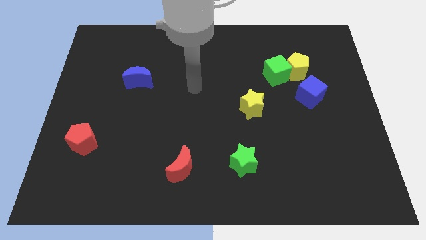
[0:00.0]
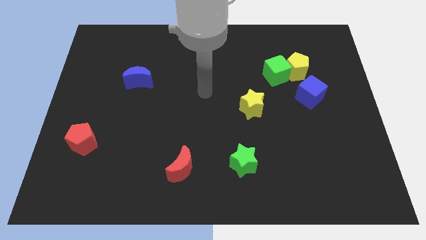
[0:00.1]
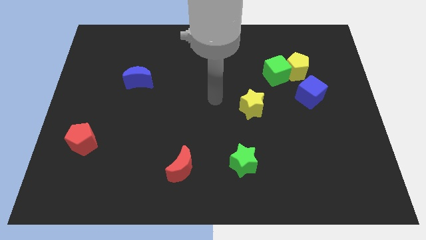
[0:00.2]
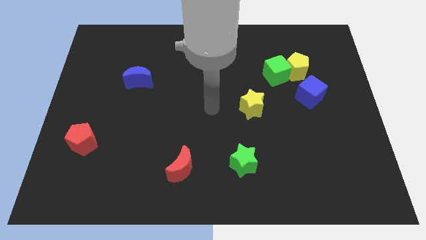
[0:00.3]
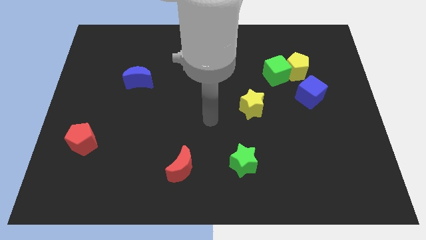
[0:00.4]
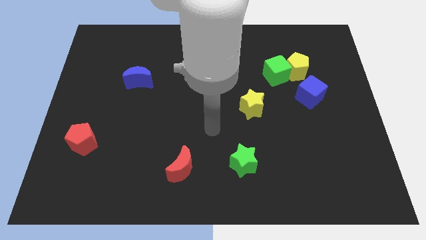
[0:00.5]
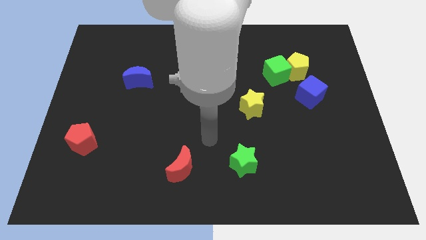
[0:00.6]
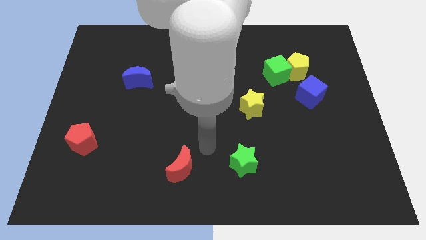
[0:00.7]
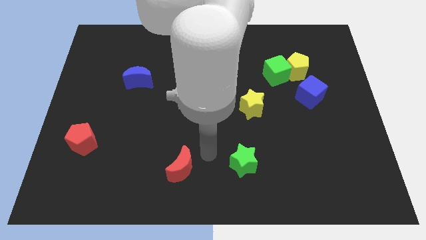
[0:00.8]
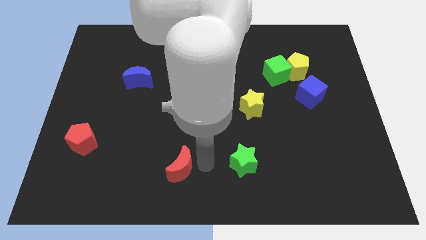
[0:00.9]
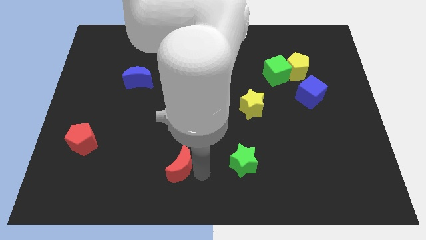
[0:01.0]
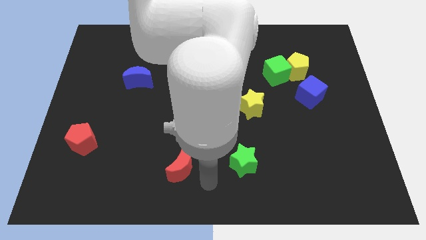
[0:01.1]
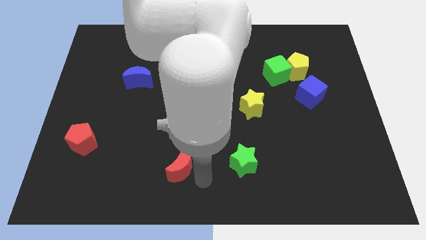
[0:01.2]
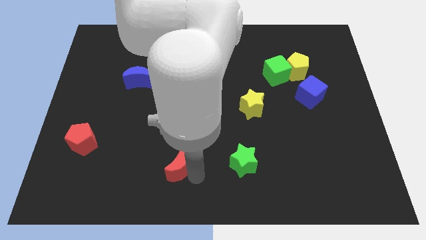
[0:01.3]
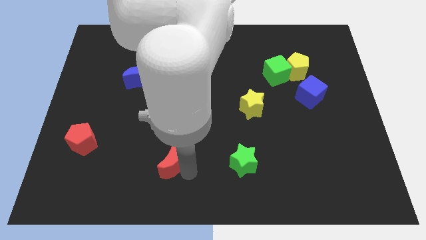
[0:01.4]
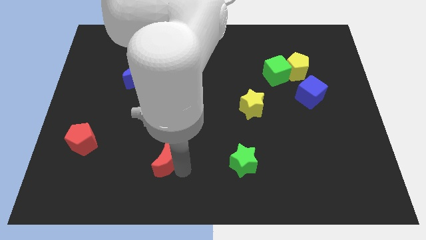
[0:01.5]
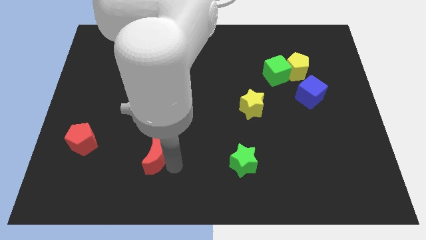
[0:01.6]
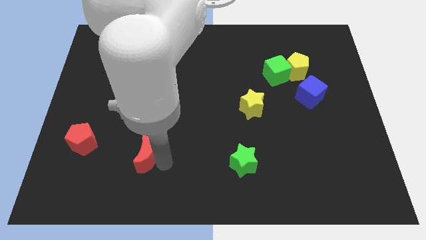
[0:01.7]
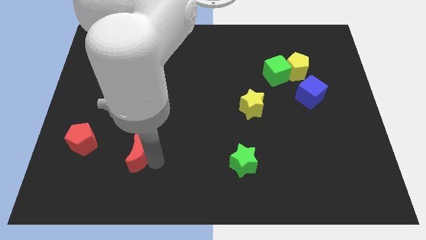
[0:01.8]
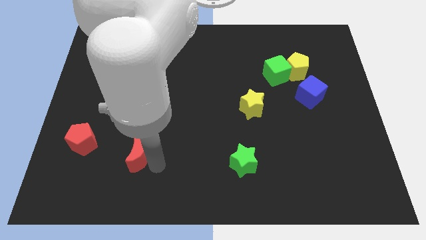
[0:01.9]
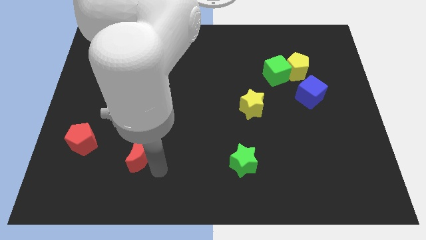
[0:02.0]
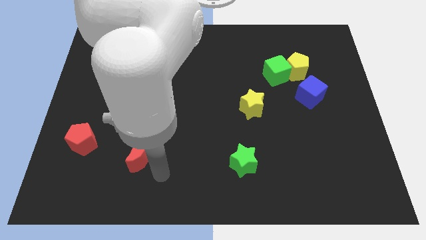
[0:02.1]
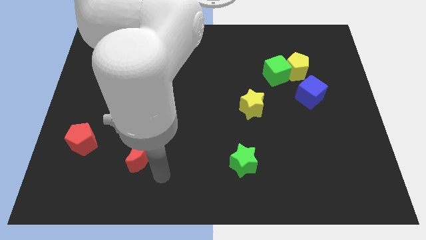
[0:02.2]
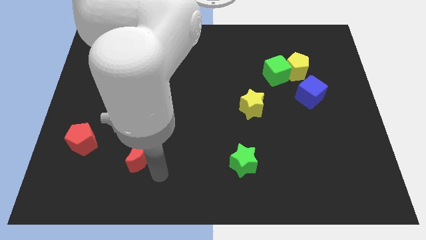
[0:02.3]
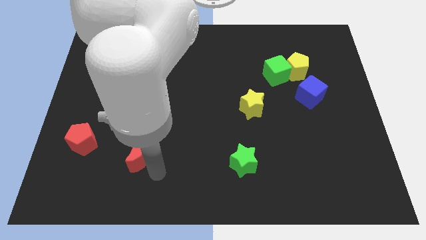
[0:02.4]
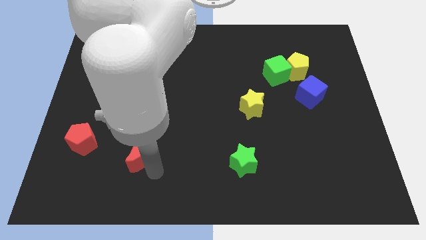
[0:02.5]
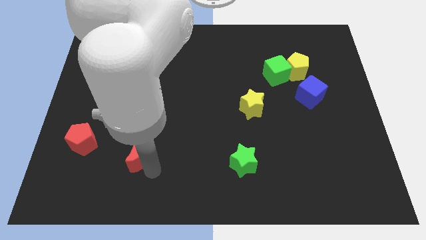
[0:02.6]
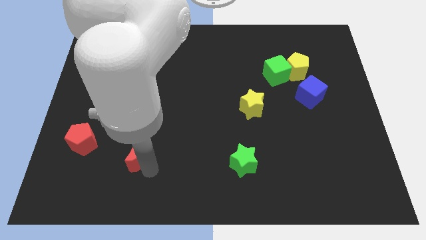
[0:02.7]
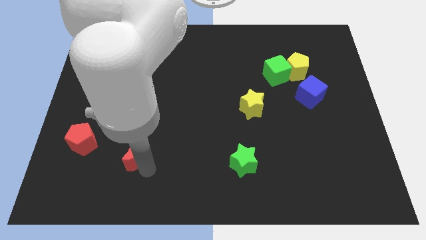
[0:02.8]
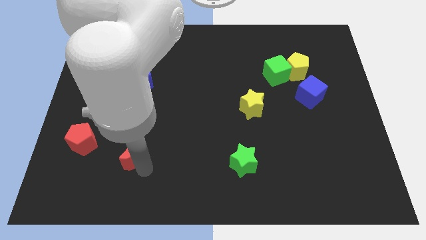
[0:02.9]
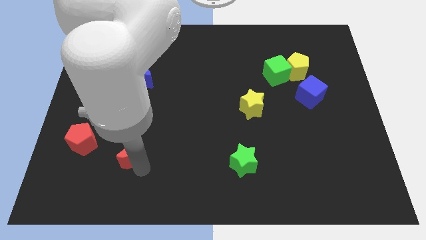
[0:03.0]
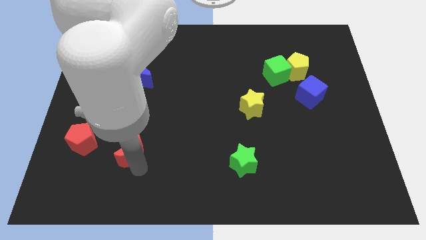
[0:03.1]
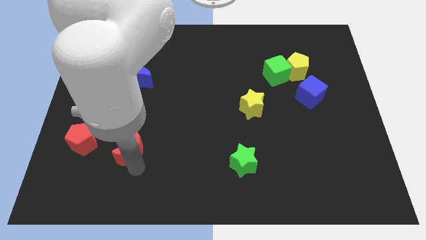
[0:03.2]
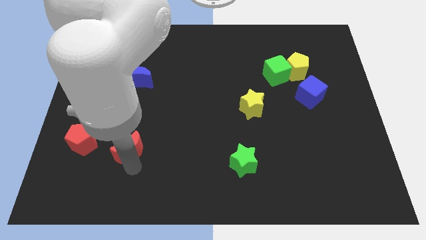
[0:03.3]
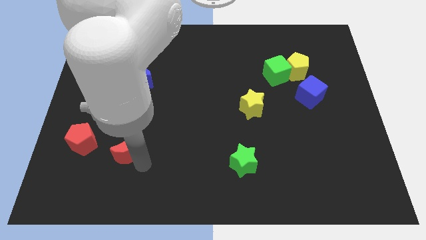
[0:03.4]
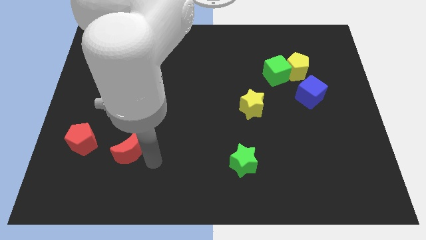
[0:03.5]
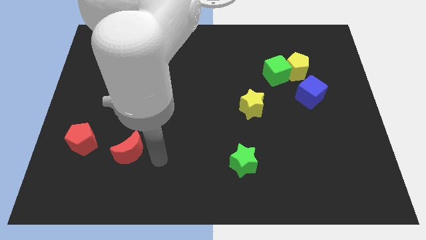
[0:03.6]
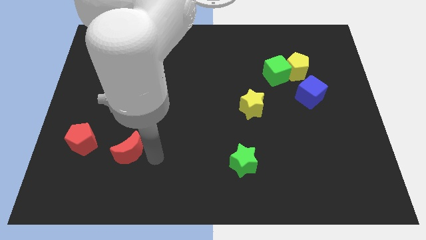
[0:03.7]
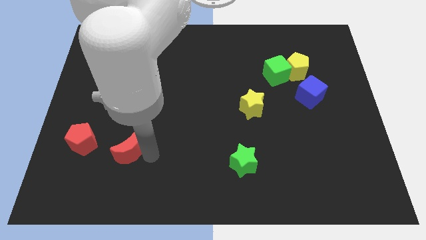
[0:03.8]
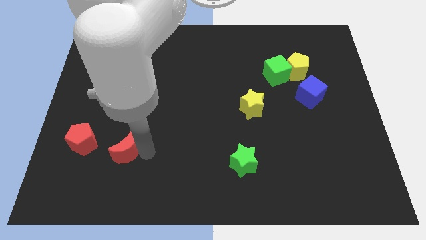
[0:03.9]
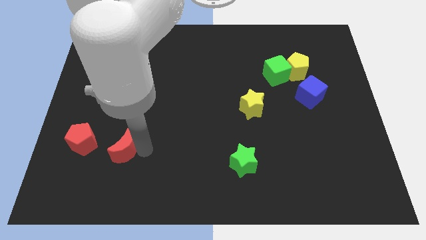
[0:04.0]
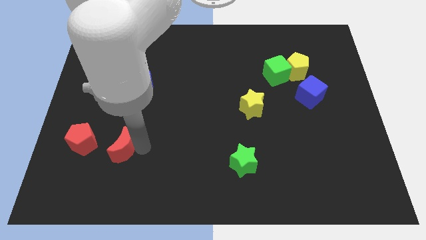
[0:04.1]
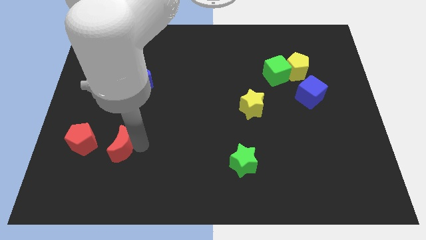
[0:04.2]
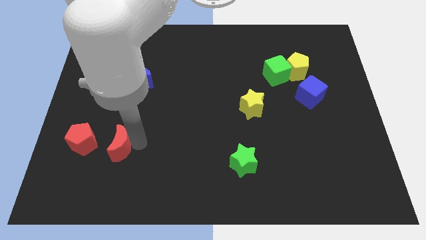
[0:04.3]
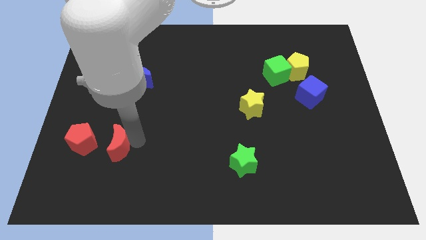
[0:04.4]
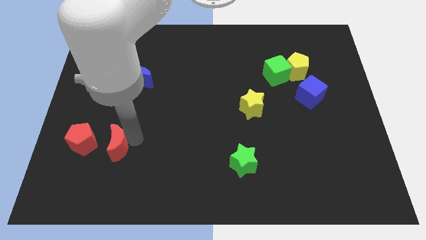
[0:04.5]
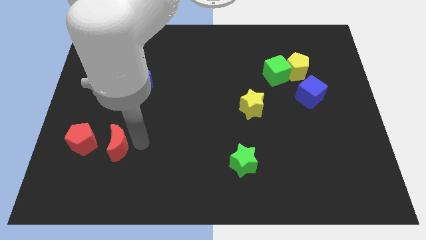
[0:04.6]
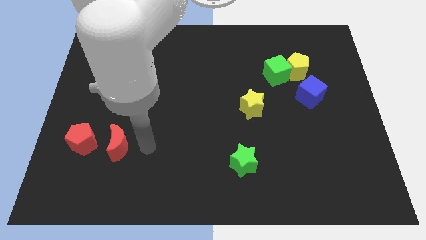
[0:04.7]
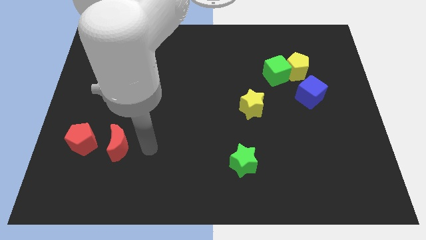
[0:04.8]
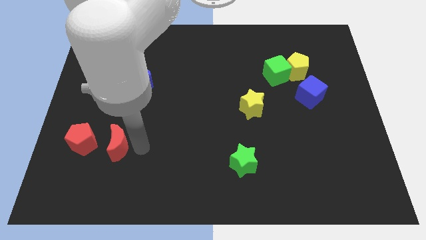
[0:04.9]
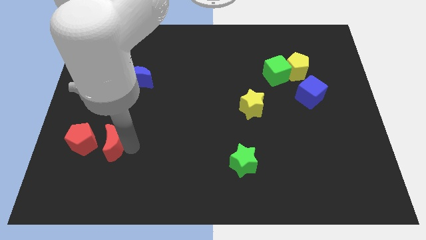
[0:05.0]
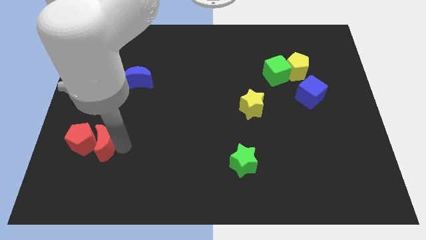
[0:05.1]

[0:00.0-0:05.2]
push the red moon next to the red pentagon

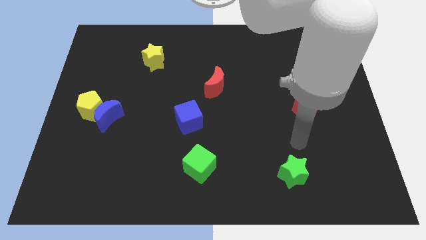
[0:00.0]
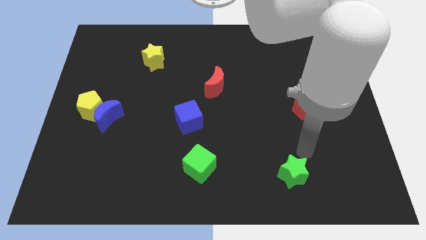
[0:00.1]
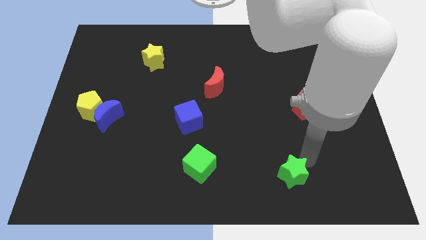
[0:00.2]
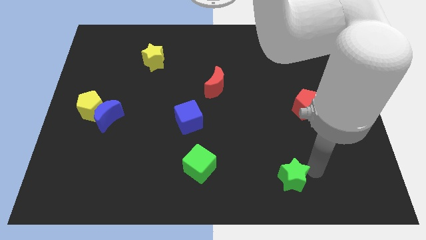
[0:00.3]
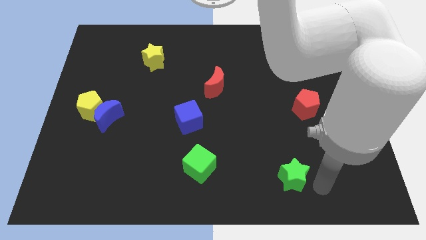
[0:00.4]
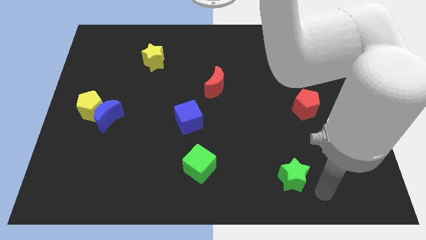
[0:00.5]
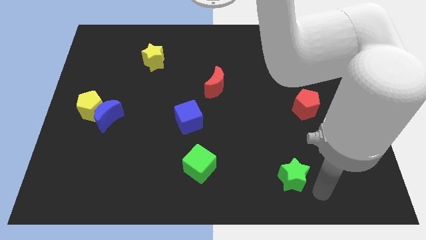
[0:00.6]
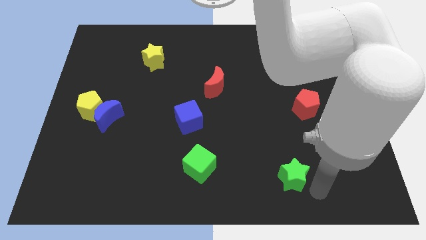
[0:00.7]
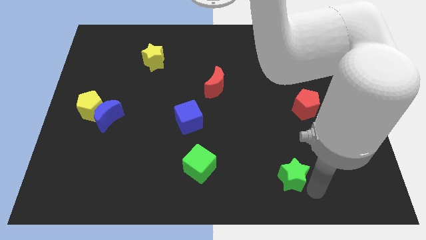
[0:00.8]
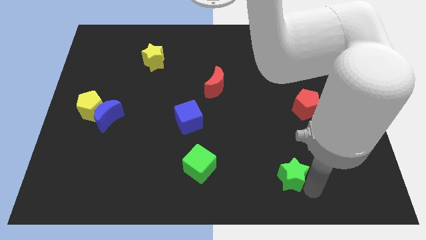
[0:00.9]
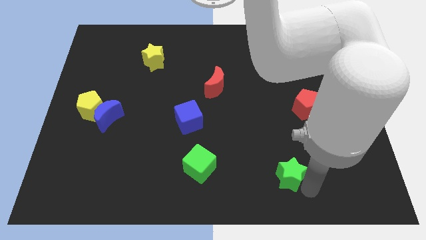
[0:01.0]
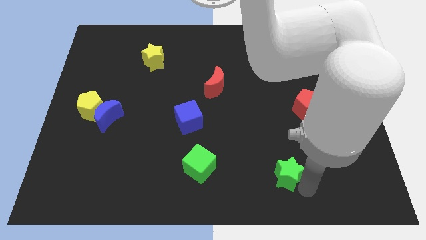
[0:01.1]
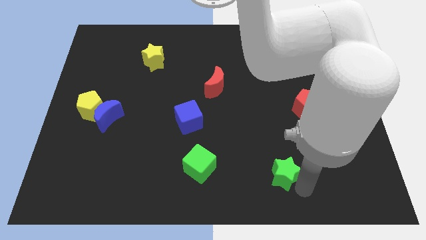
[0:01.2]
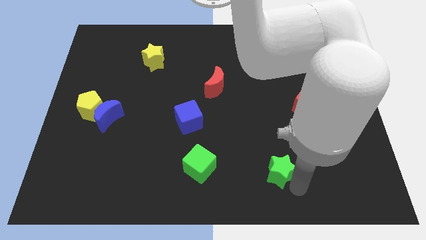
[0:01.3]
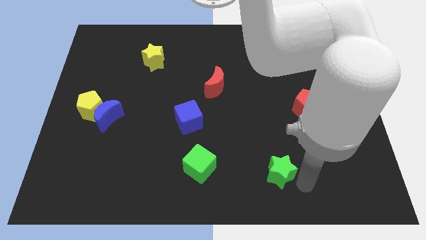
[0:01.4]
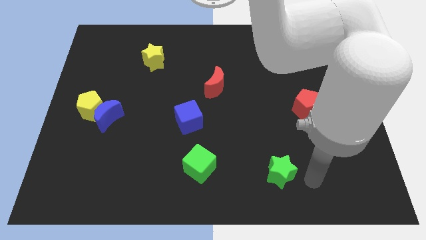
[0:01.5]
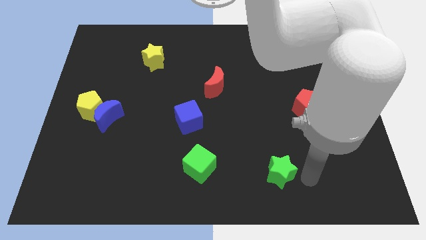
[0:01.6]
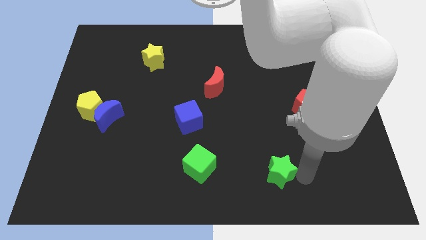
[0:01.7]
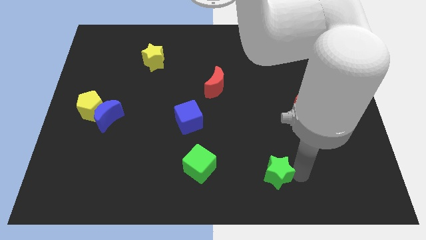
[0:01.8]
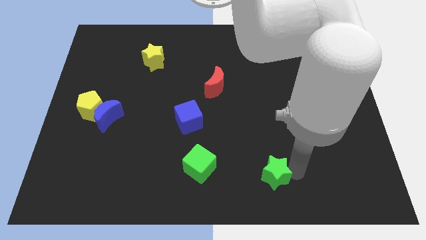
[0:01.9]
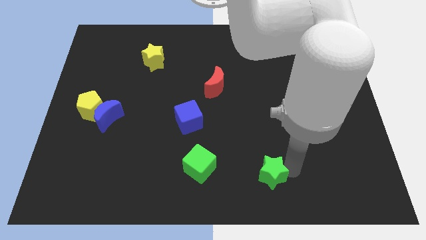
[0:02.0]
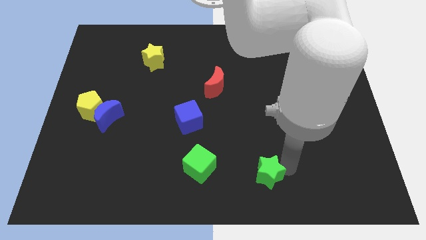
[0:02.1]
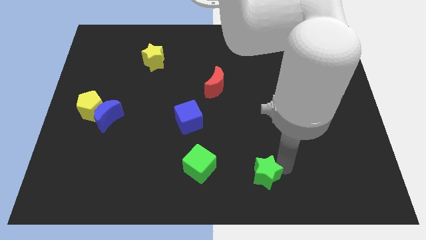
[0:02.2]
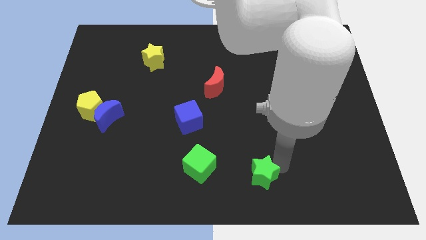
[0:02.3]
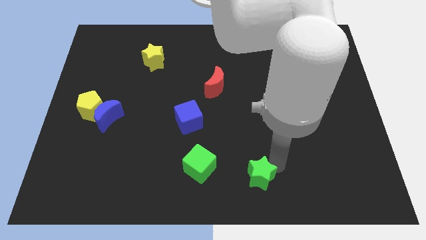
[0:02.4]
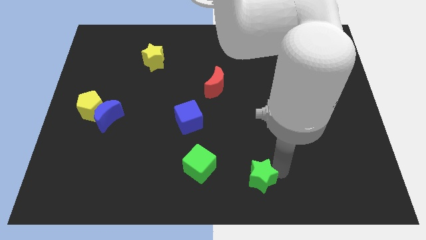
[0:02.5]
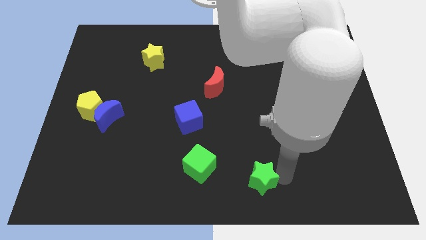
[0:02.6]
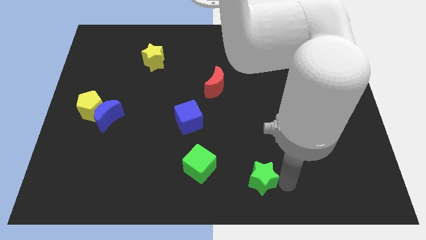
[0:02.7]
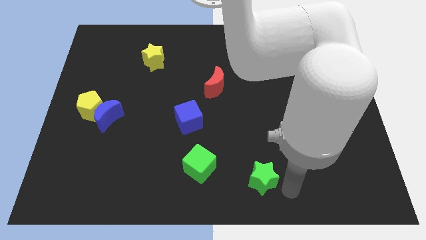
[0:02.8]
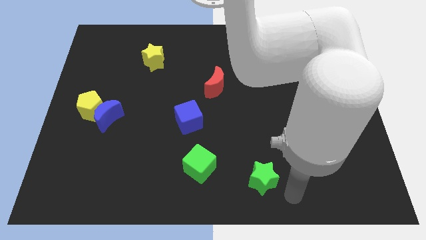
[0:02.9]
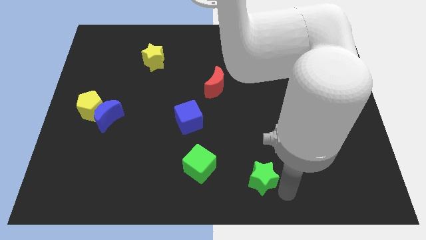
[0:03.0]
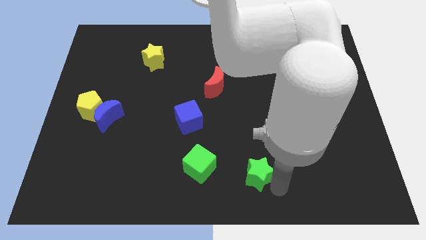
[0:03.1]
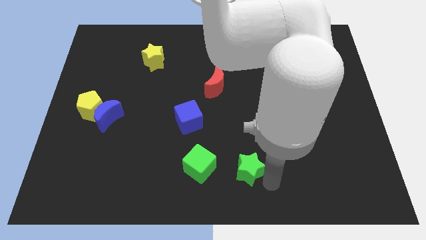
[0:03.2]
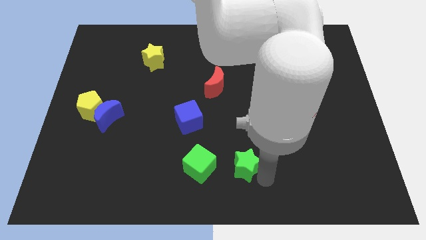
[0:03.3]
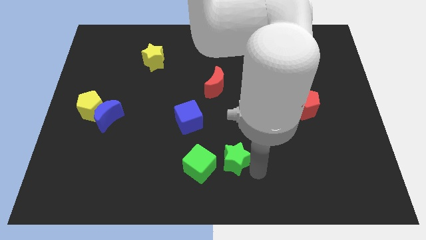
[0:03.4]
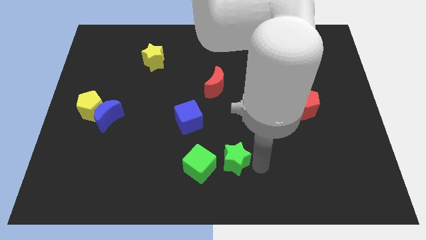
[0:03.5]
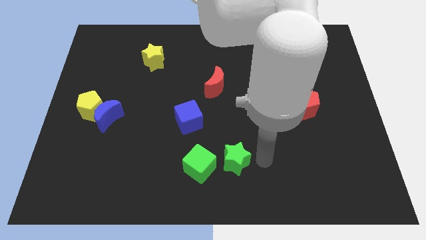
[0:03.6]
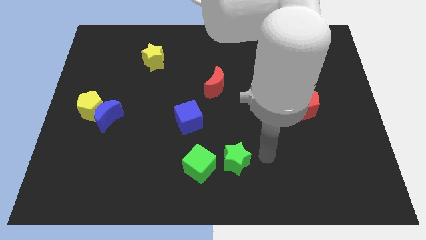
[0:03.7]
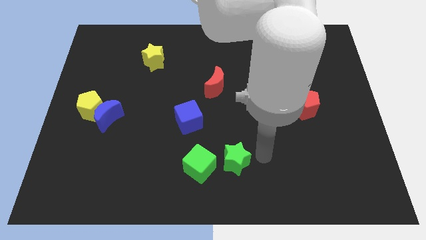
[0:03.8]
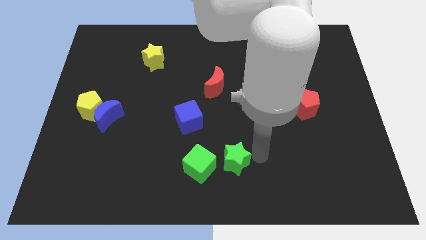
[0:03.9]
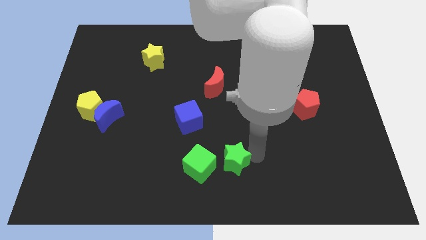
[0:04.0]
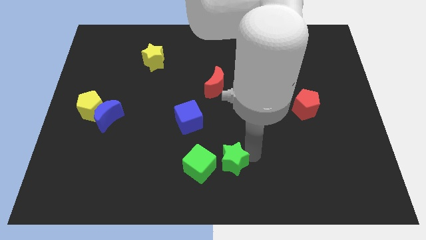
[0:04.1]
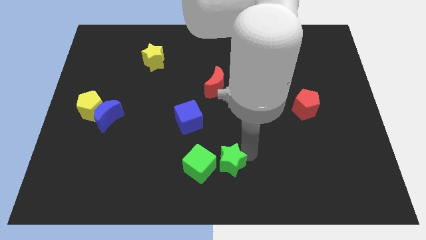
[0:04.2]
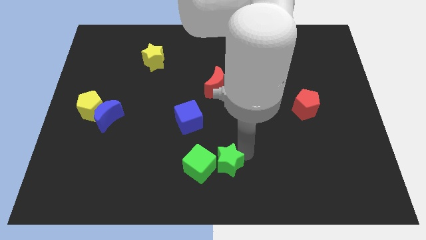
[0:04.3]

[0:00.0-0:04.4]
push the green star towards the green cube
